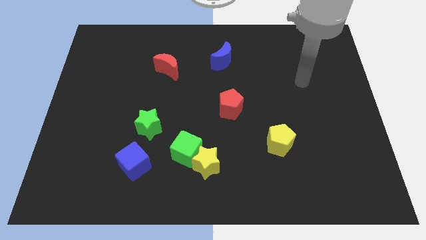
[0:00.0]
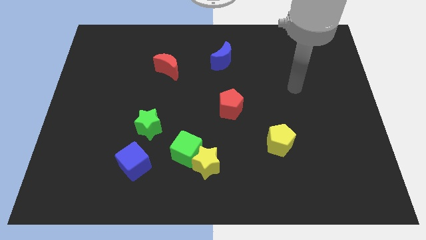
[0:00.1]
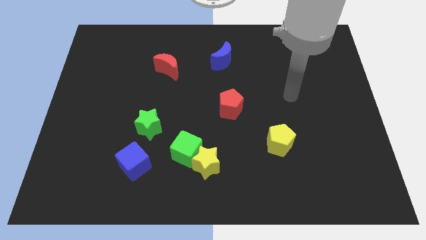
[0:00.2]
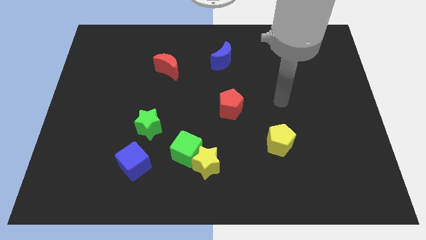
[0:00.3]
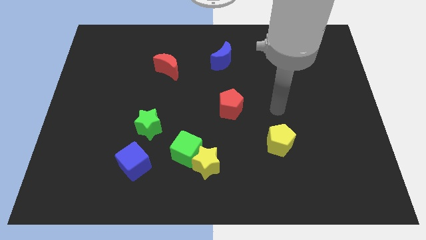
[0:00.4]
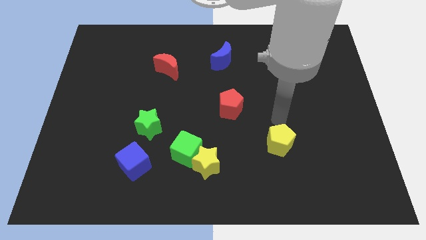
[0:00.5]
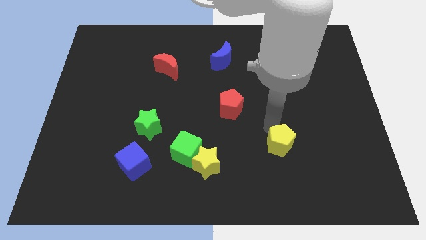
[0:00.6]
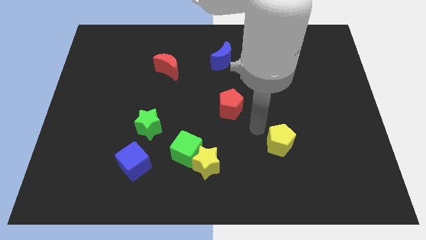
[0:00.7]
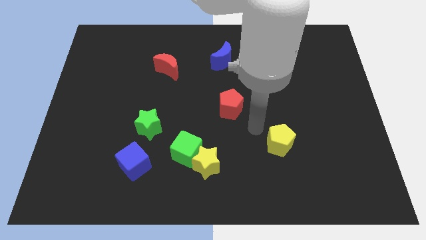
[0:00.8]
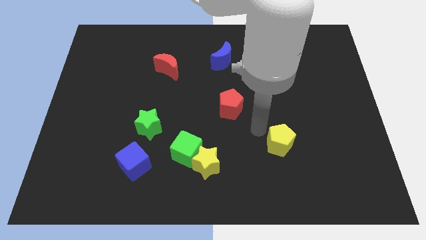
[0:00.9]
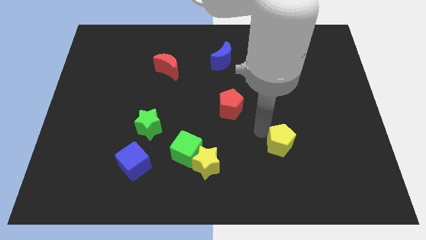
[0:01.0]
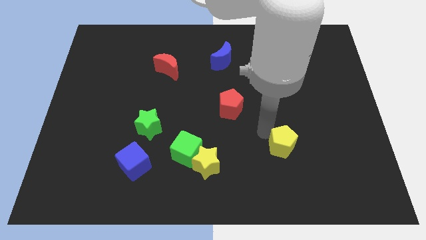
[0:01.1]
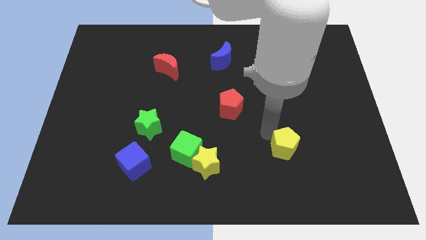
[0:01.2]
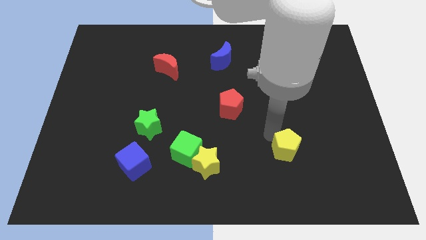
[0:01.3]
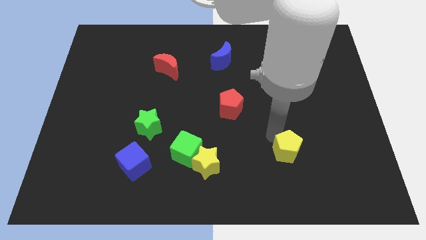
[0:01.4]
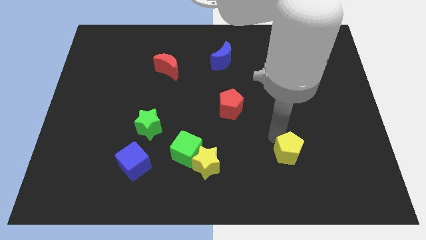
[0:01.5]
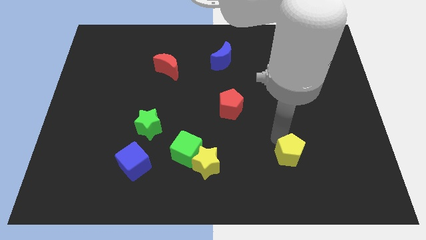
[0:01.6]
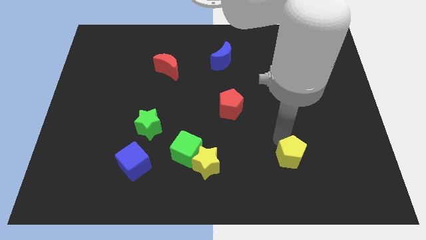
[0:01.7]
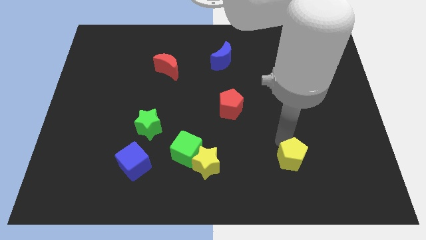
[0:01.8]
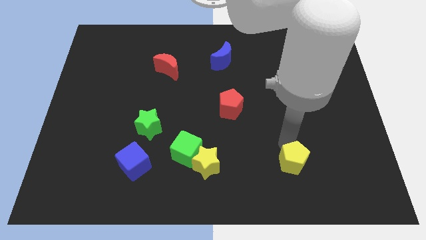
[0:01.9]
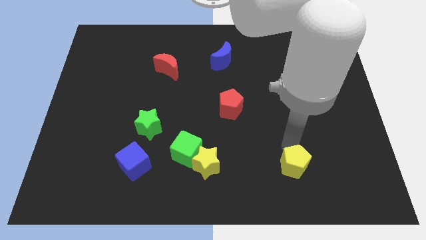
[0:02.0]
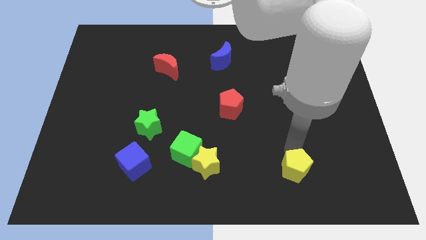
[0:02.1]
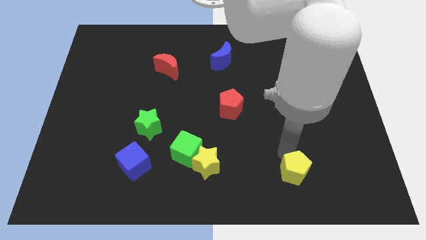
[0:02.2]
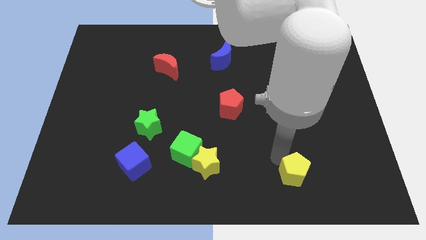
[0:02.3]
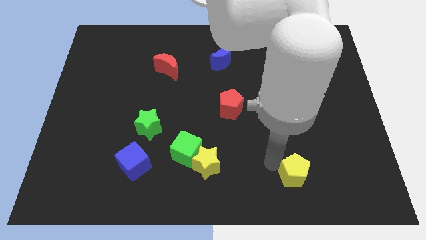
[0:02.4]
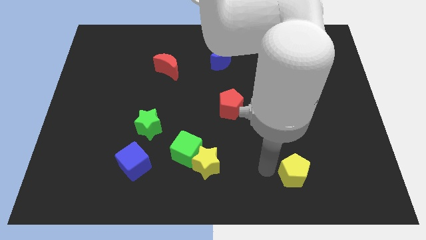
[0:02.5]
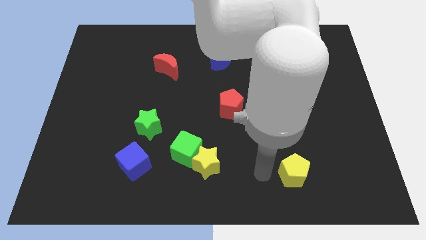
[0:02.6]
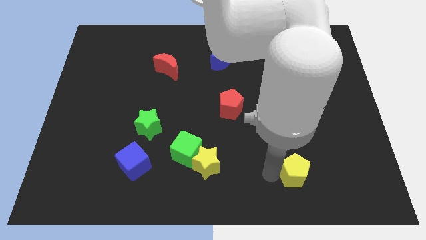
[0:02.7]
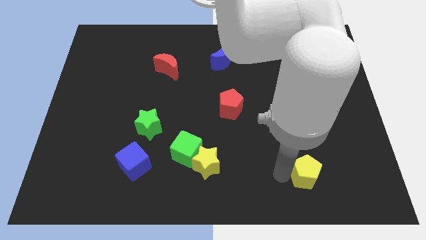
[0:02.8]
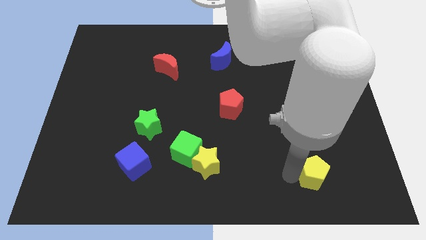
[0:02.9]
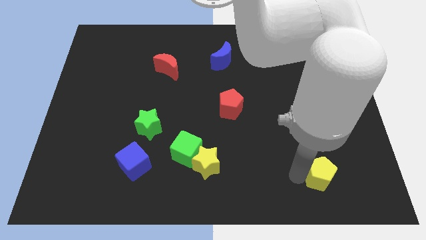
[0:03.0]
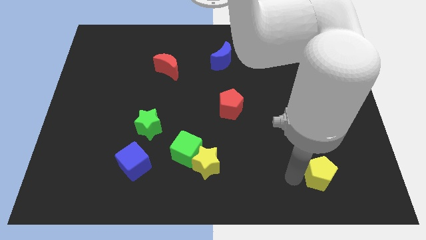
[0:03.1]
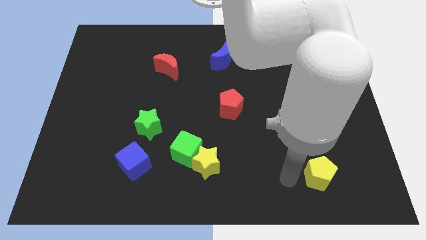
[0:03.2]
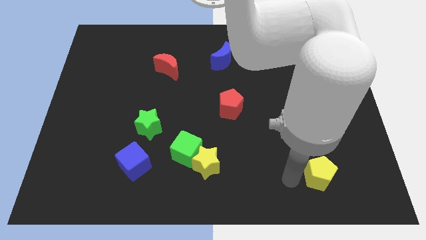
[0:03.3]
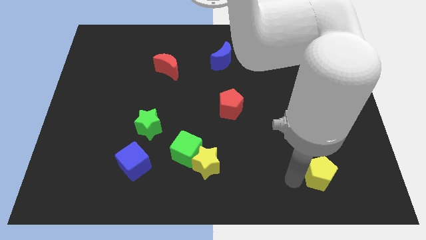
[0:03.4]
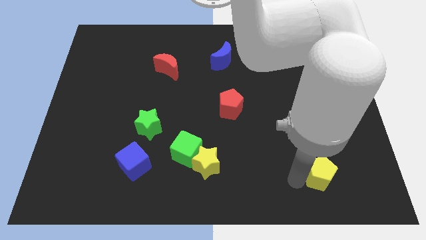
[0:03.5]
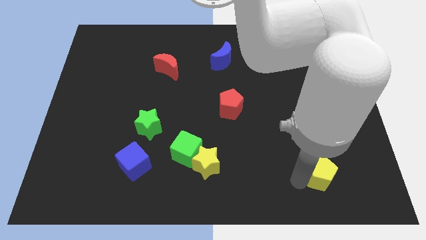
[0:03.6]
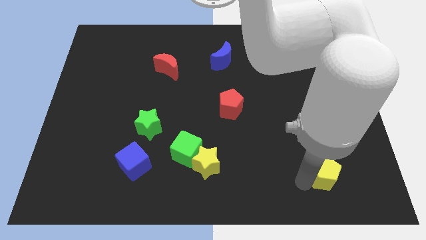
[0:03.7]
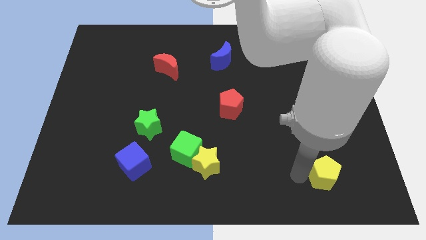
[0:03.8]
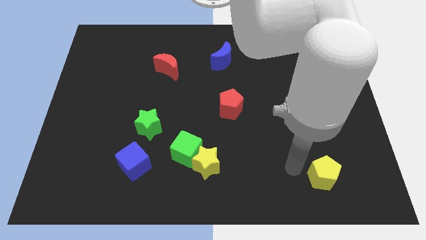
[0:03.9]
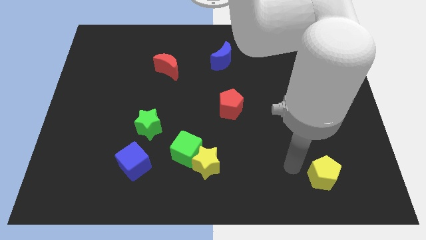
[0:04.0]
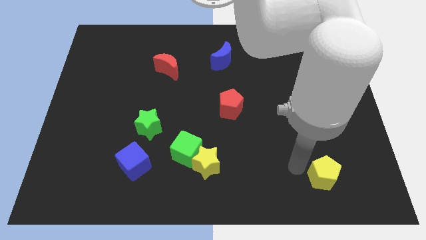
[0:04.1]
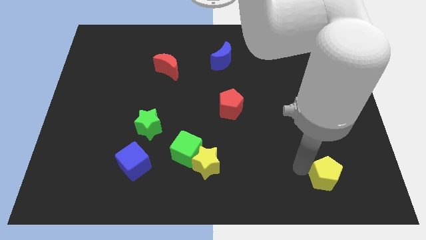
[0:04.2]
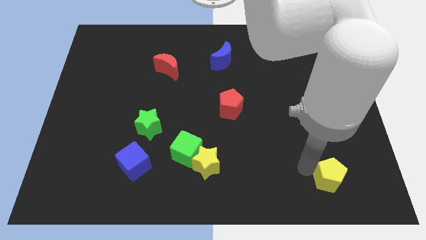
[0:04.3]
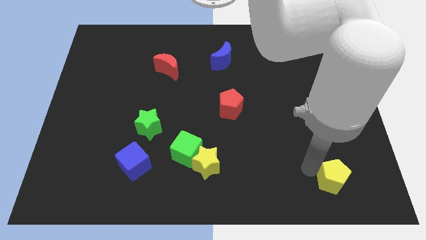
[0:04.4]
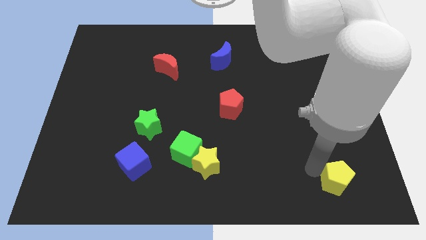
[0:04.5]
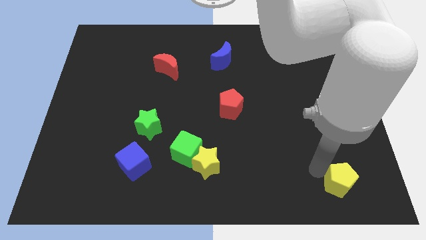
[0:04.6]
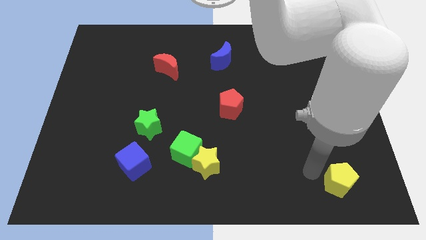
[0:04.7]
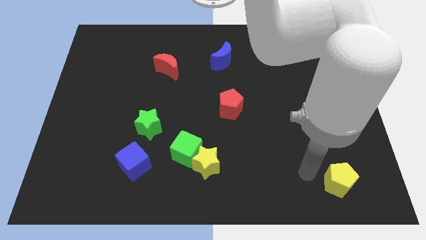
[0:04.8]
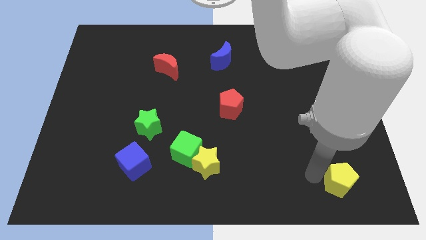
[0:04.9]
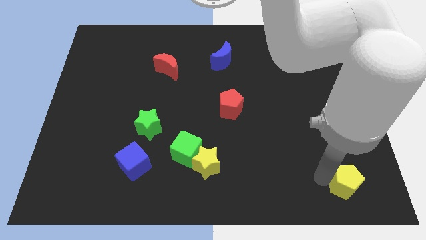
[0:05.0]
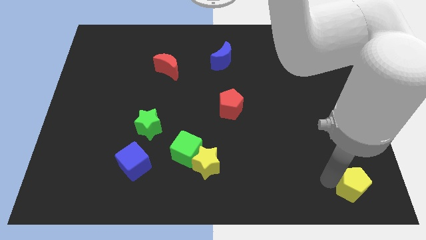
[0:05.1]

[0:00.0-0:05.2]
move the yellow pentagon to the bottom right of the board

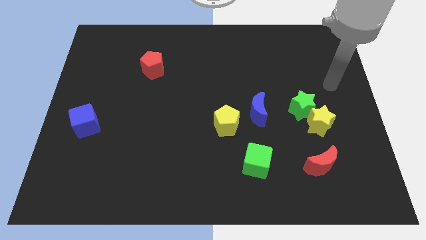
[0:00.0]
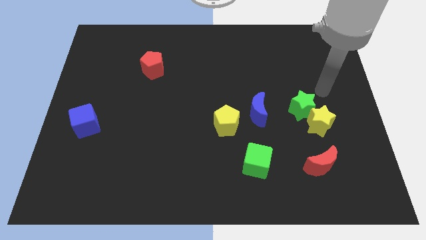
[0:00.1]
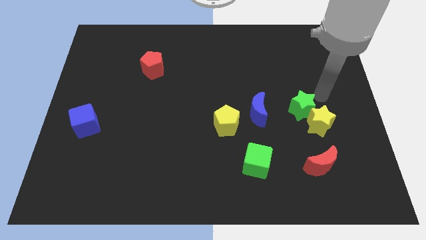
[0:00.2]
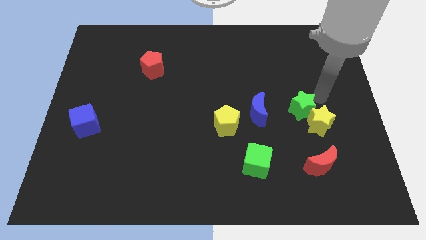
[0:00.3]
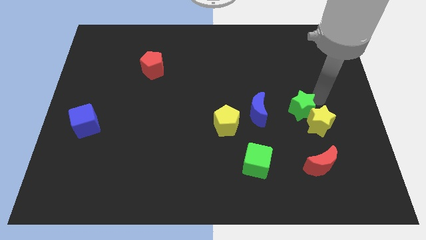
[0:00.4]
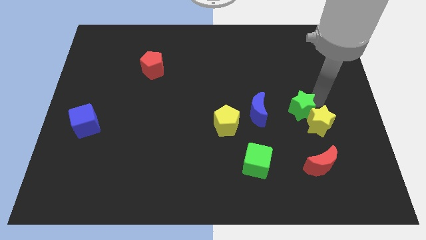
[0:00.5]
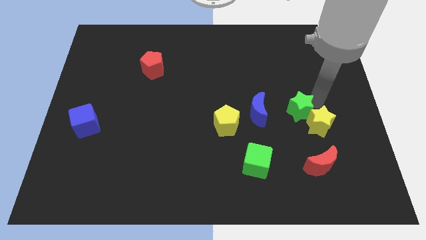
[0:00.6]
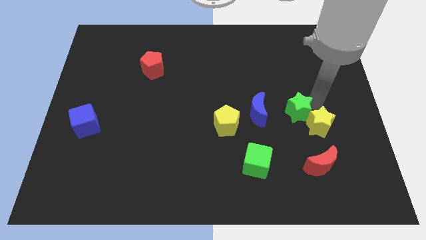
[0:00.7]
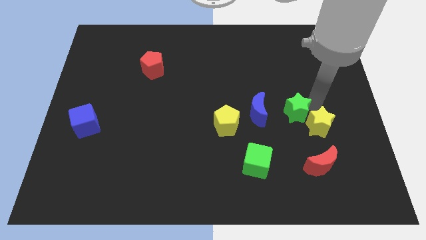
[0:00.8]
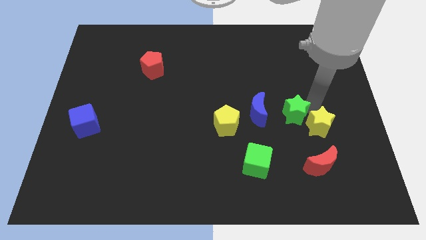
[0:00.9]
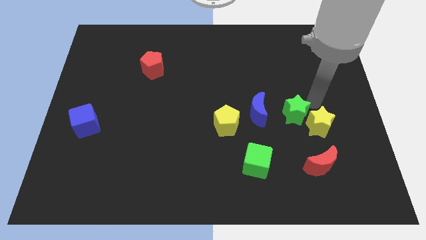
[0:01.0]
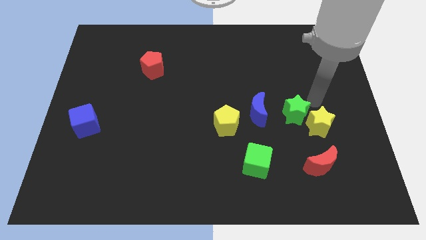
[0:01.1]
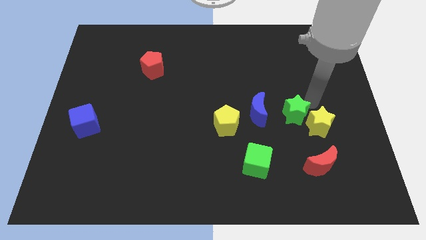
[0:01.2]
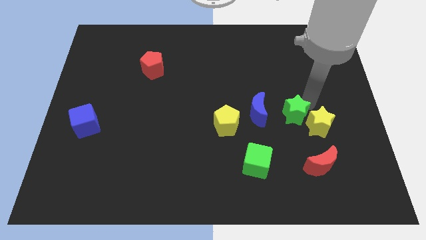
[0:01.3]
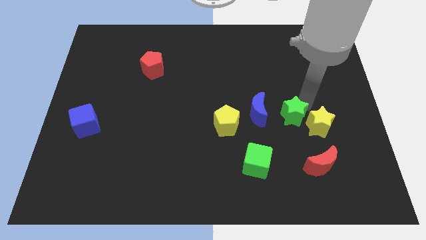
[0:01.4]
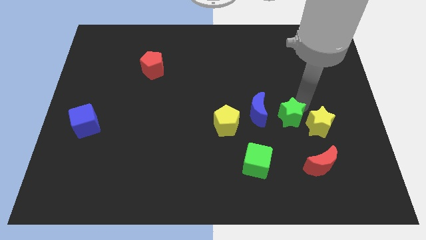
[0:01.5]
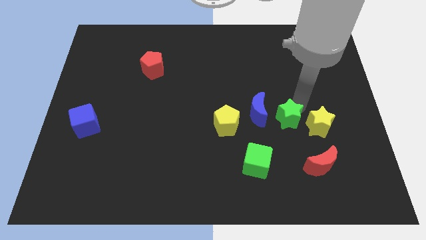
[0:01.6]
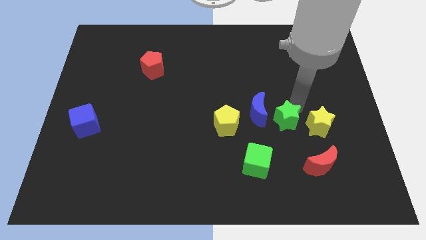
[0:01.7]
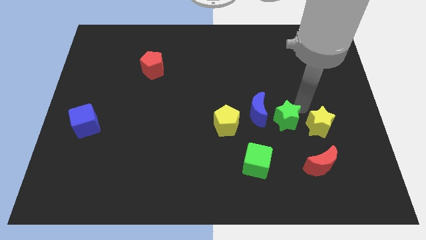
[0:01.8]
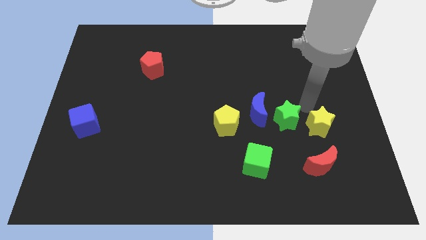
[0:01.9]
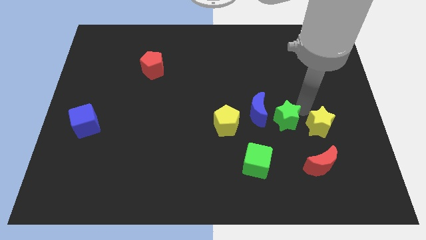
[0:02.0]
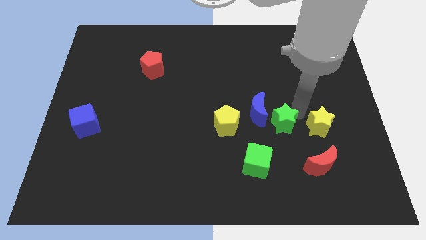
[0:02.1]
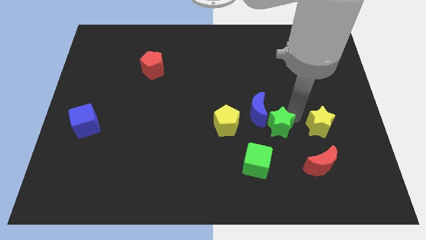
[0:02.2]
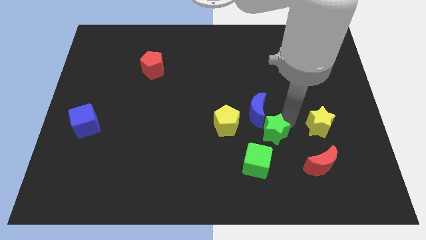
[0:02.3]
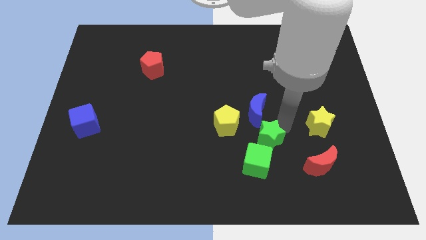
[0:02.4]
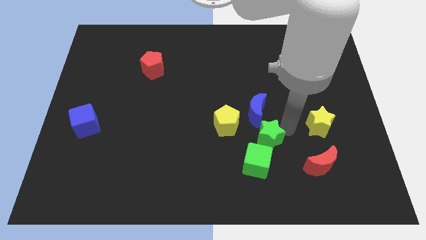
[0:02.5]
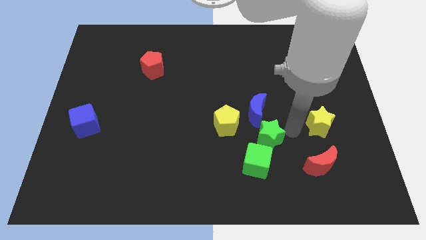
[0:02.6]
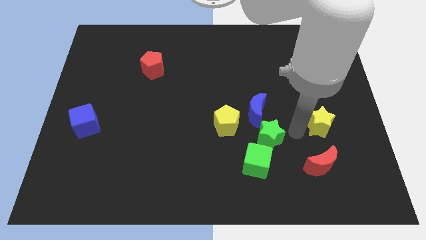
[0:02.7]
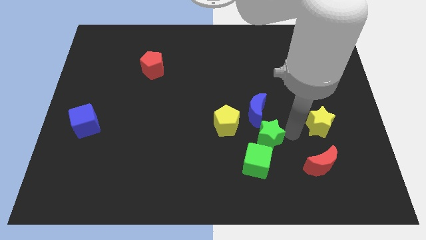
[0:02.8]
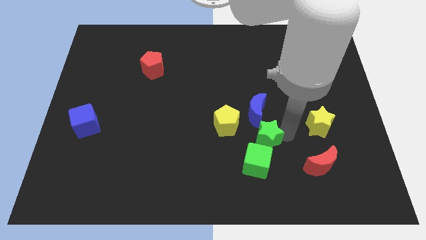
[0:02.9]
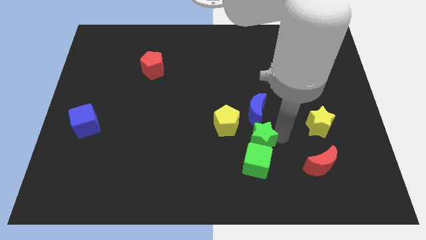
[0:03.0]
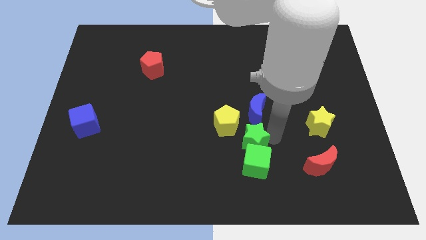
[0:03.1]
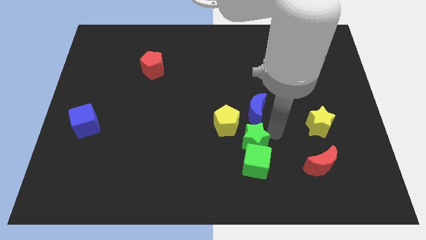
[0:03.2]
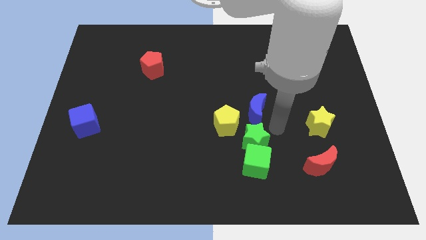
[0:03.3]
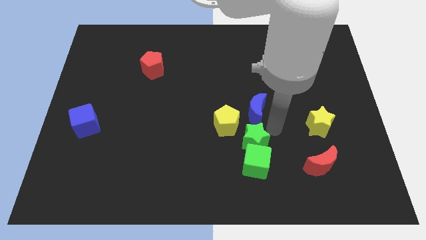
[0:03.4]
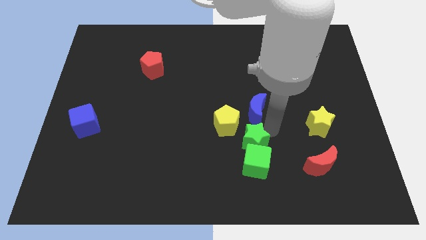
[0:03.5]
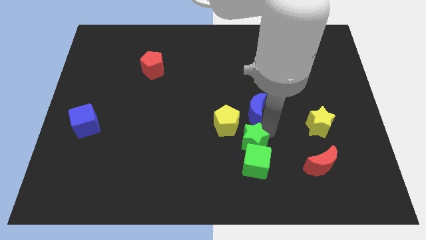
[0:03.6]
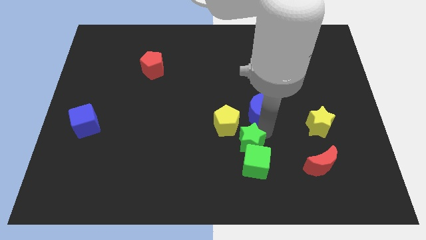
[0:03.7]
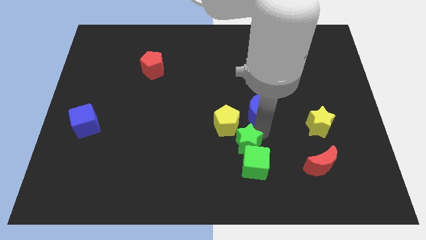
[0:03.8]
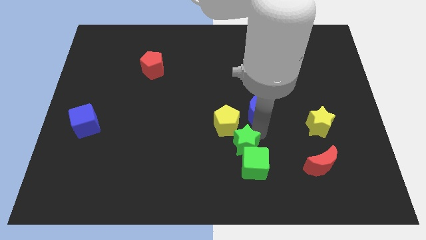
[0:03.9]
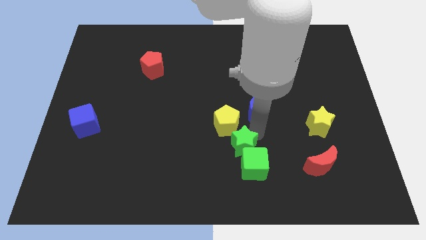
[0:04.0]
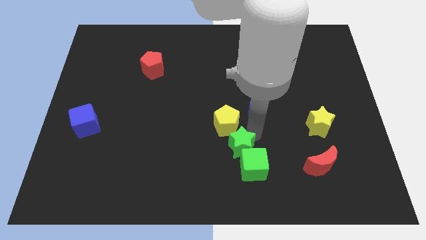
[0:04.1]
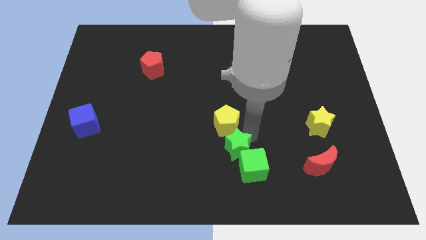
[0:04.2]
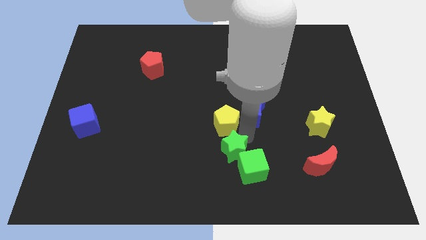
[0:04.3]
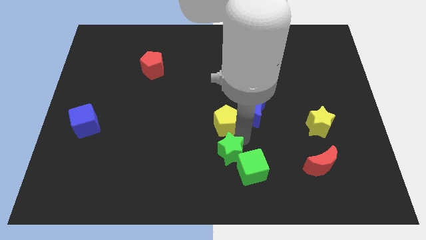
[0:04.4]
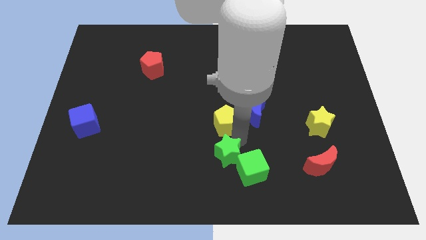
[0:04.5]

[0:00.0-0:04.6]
push the green star to the bottom side
